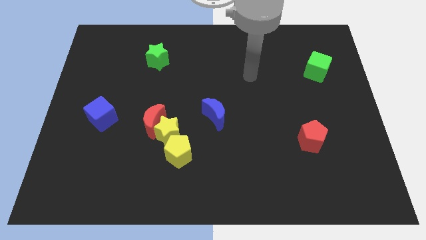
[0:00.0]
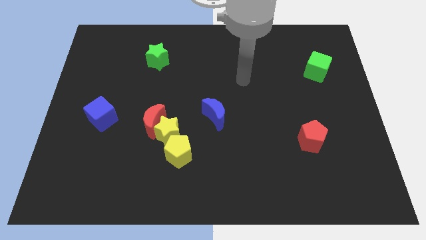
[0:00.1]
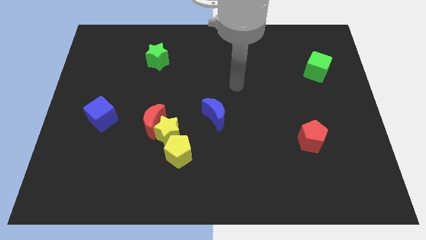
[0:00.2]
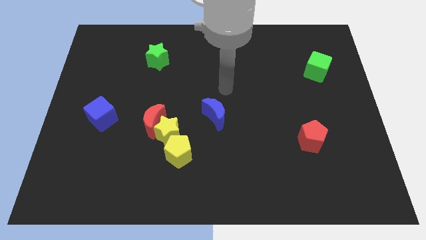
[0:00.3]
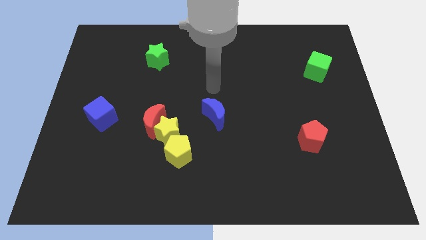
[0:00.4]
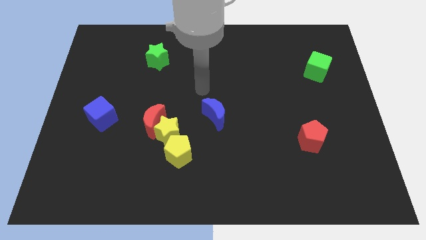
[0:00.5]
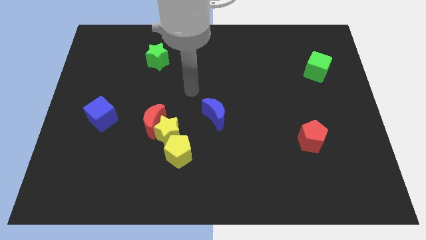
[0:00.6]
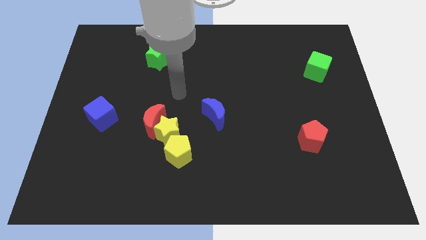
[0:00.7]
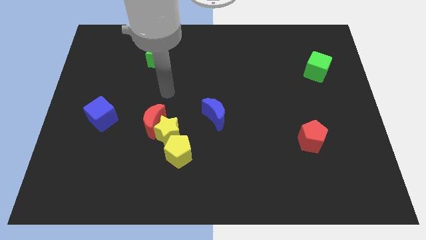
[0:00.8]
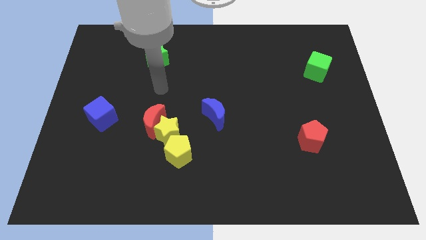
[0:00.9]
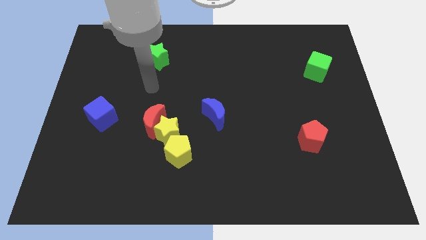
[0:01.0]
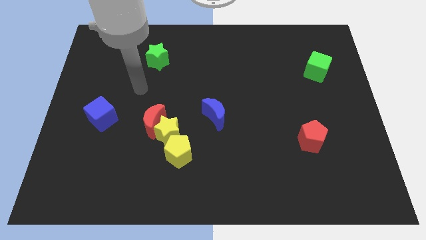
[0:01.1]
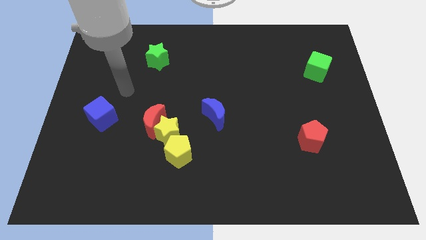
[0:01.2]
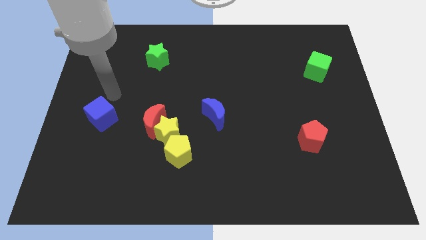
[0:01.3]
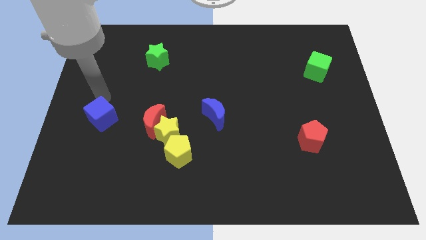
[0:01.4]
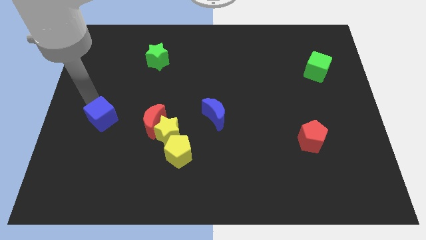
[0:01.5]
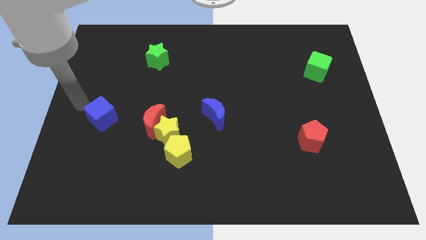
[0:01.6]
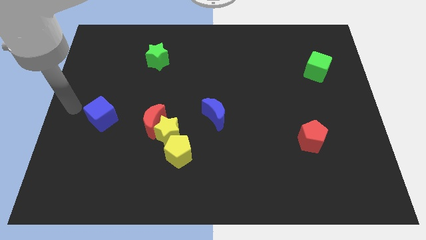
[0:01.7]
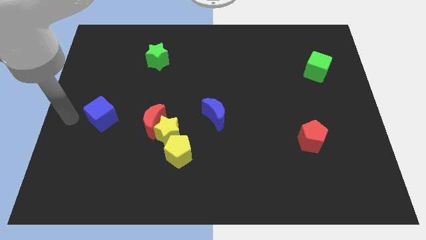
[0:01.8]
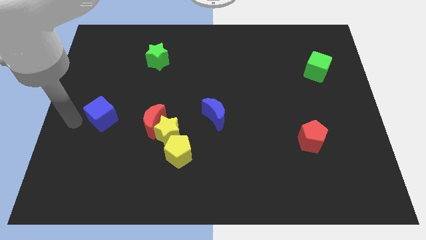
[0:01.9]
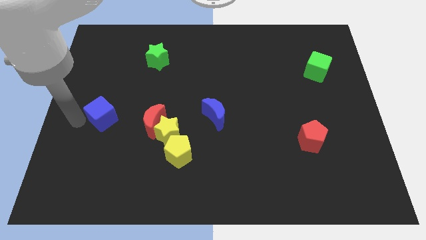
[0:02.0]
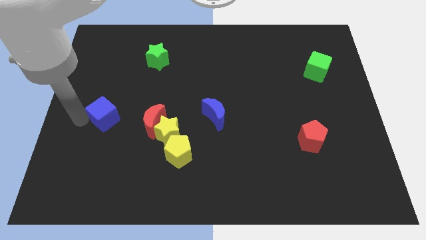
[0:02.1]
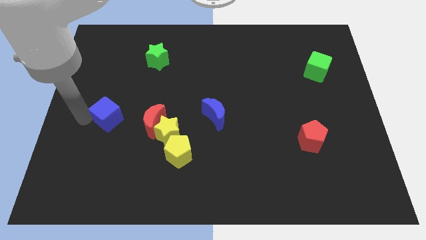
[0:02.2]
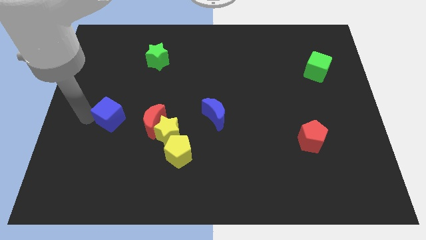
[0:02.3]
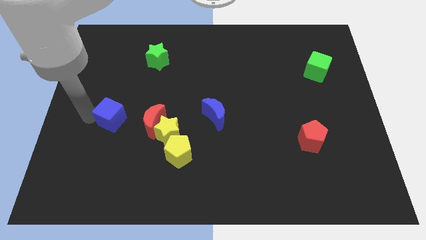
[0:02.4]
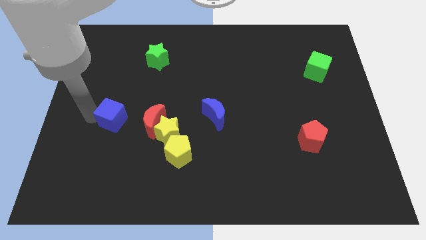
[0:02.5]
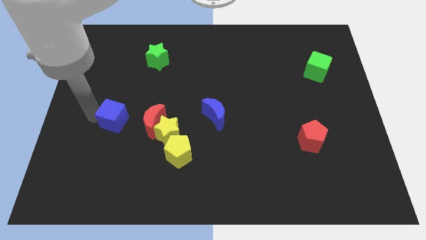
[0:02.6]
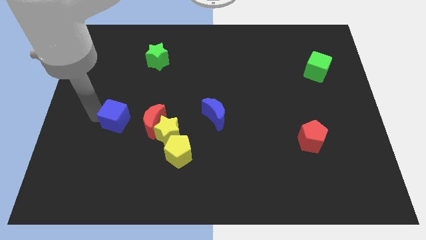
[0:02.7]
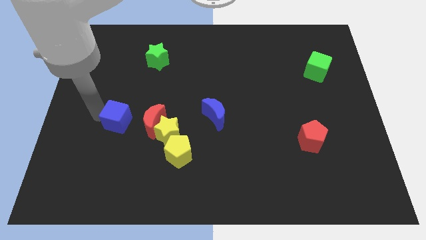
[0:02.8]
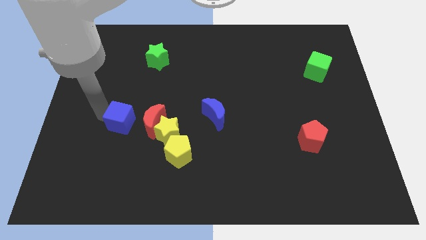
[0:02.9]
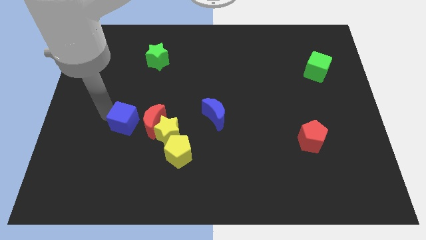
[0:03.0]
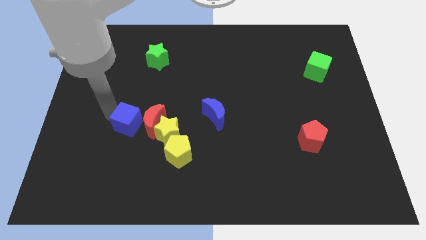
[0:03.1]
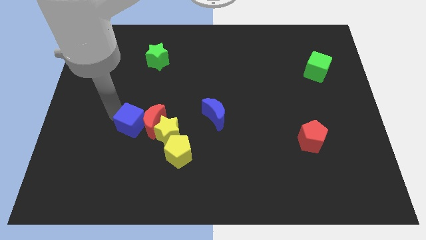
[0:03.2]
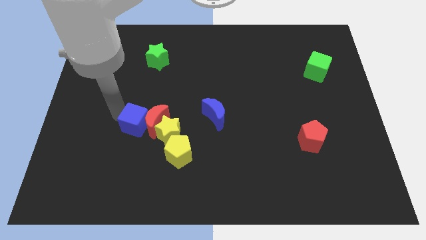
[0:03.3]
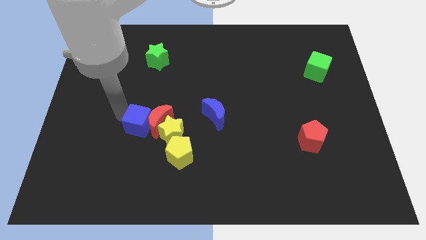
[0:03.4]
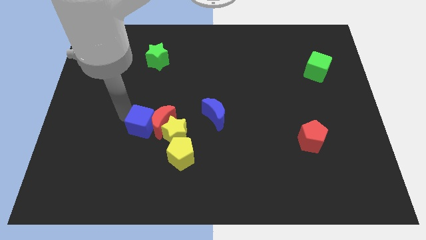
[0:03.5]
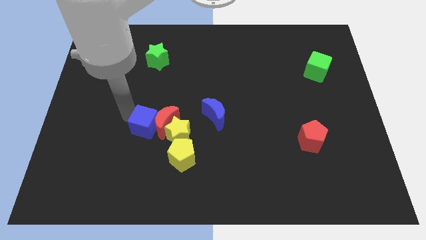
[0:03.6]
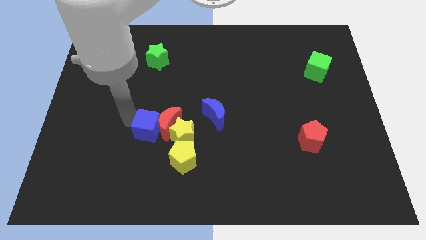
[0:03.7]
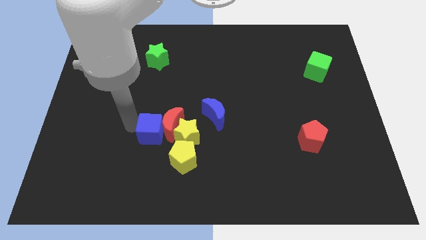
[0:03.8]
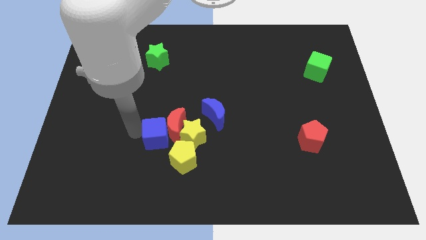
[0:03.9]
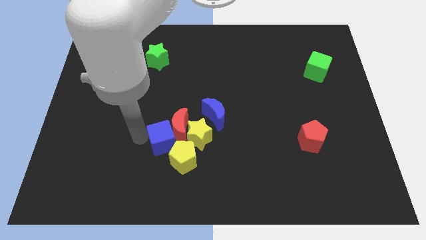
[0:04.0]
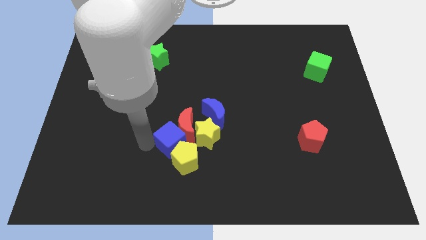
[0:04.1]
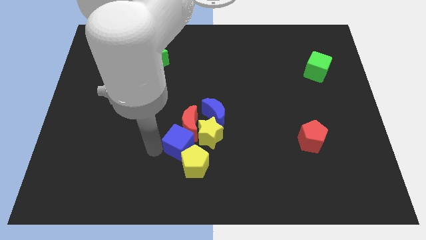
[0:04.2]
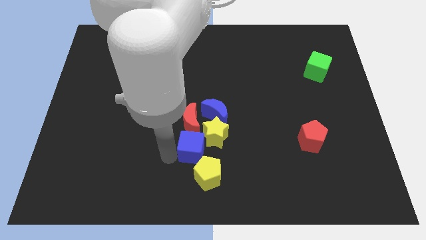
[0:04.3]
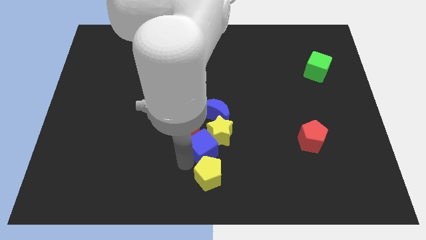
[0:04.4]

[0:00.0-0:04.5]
push the blue cube to the right

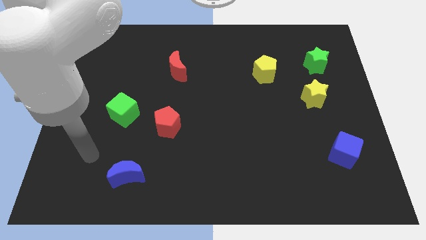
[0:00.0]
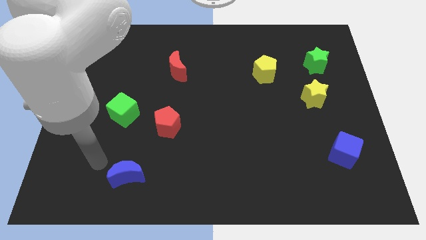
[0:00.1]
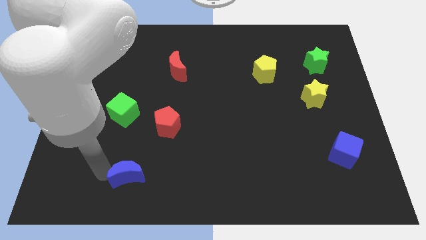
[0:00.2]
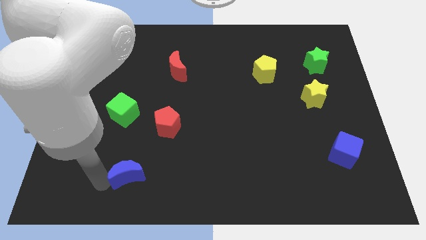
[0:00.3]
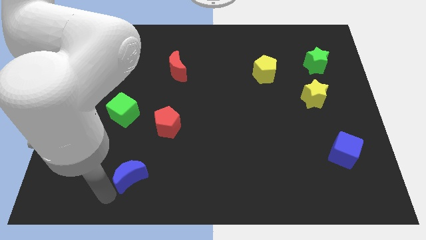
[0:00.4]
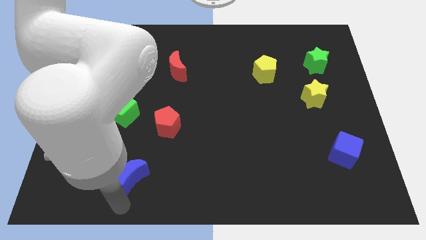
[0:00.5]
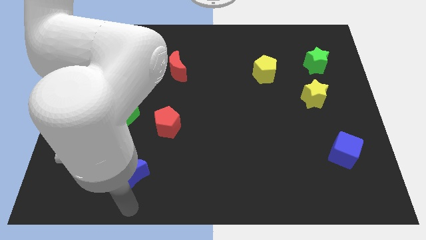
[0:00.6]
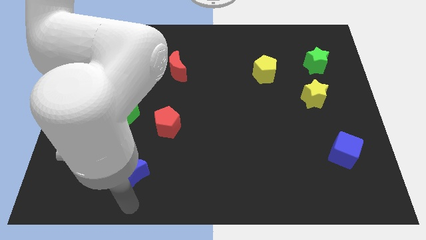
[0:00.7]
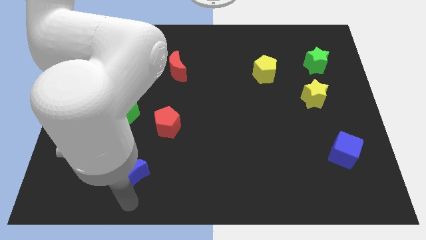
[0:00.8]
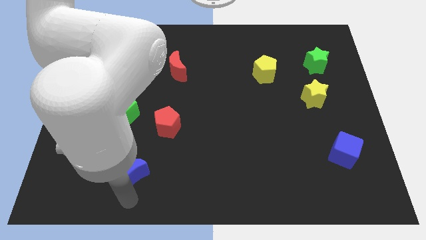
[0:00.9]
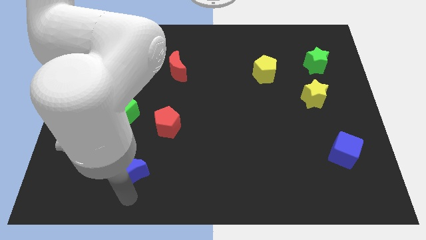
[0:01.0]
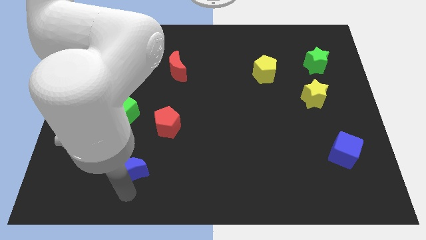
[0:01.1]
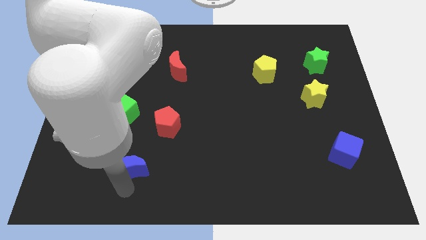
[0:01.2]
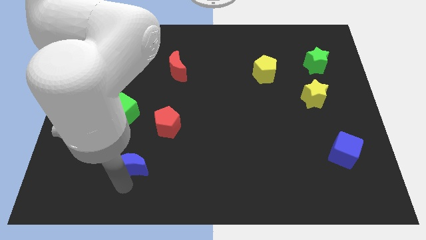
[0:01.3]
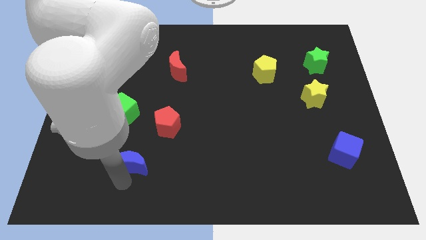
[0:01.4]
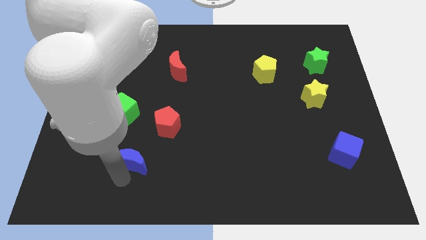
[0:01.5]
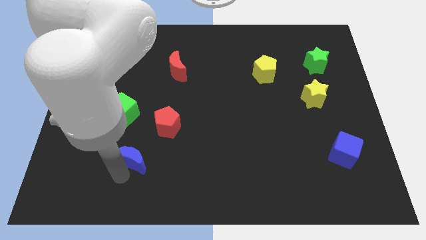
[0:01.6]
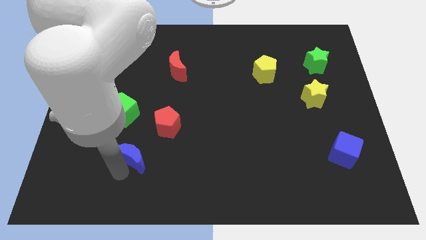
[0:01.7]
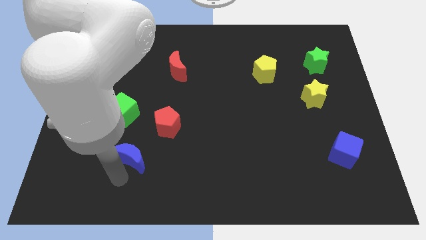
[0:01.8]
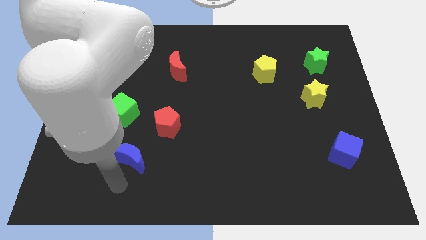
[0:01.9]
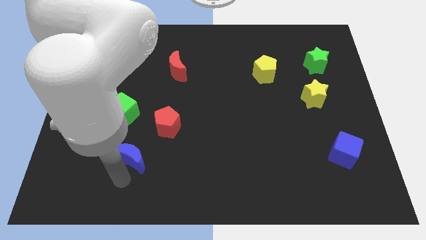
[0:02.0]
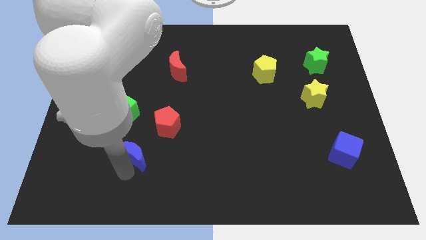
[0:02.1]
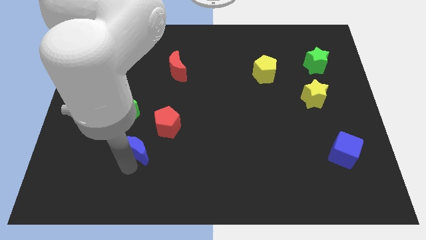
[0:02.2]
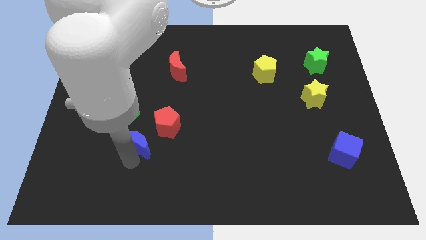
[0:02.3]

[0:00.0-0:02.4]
slide the blue moon up slightly

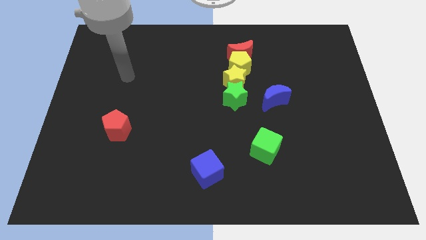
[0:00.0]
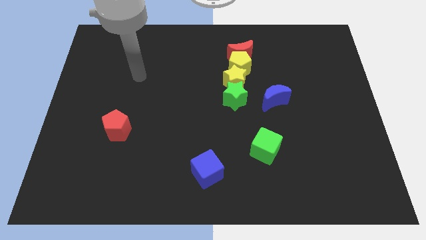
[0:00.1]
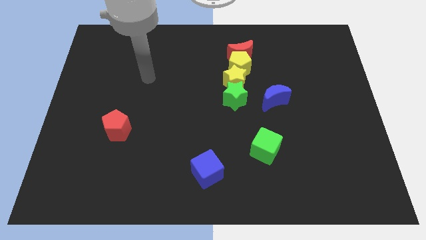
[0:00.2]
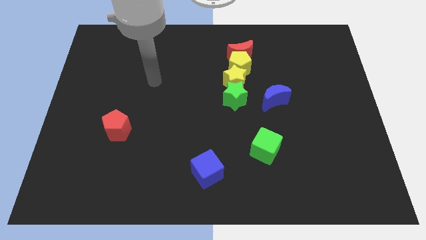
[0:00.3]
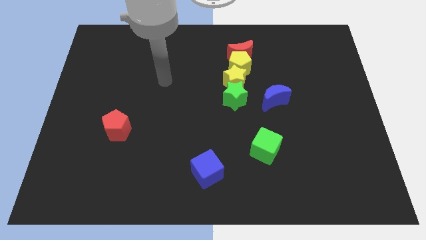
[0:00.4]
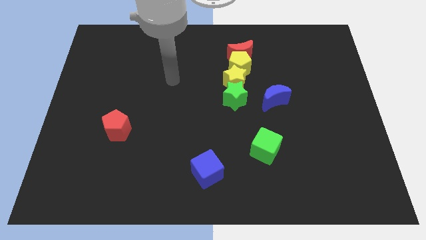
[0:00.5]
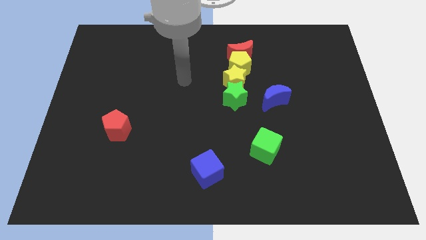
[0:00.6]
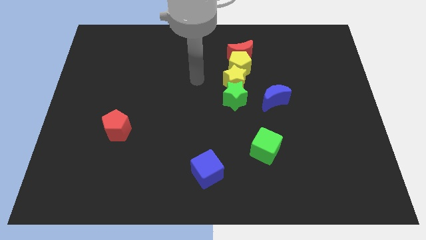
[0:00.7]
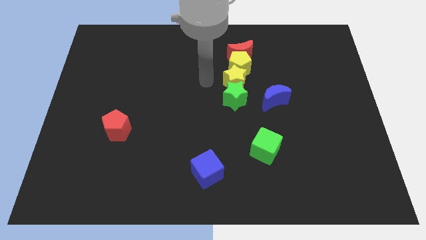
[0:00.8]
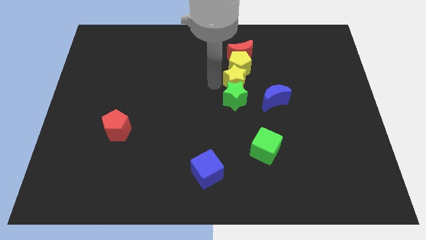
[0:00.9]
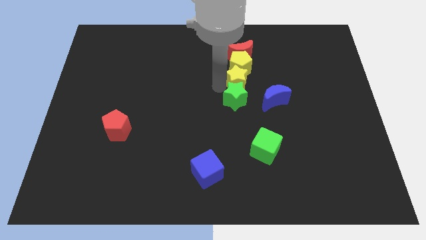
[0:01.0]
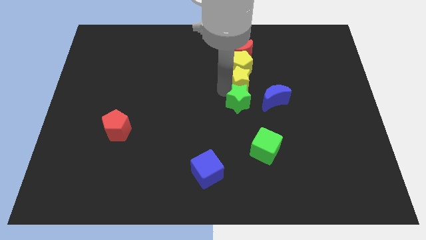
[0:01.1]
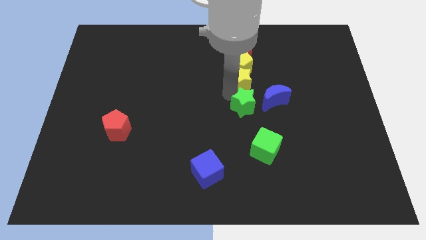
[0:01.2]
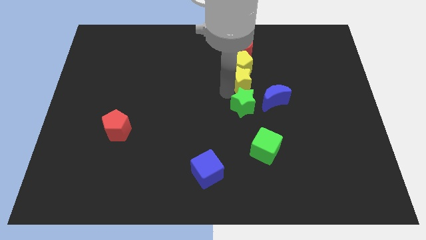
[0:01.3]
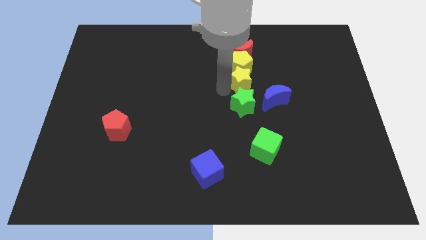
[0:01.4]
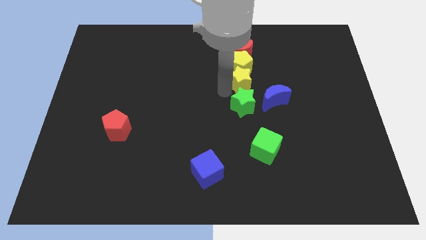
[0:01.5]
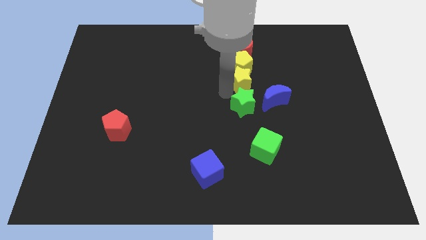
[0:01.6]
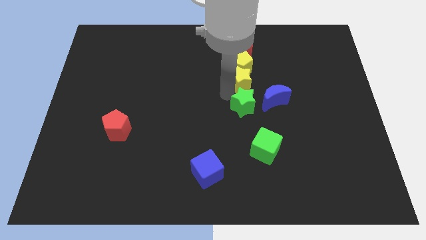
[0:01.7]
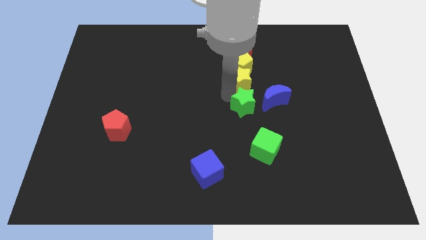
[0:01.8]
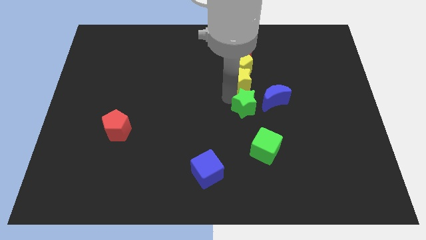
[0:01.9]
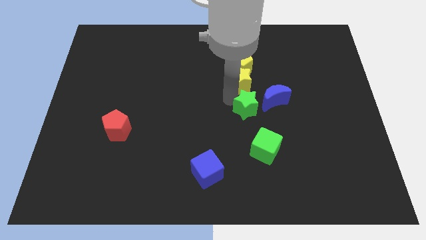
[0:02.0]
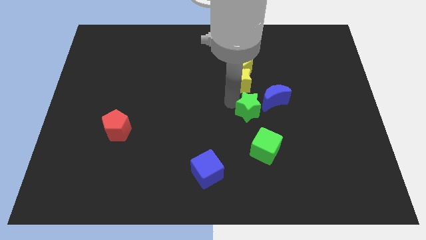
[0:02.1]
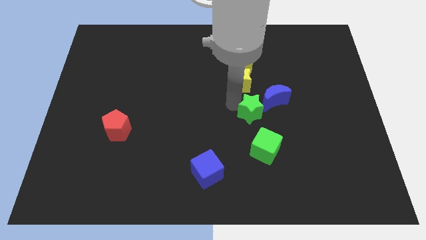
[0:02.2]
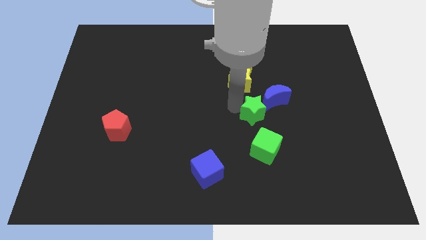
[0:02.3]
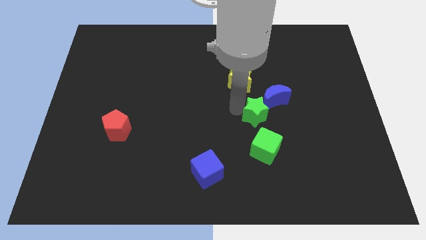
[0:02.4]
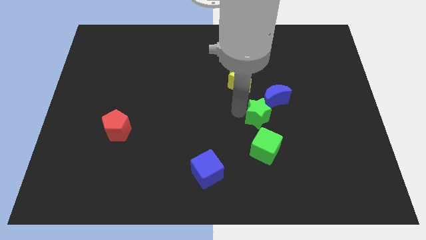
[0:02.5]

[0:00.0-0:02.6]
slightly move the green star downwards and right diagonally
